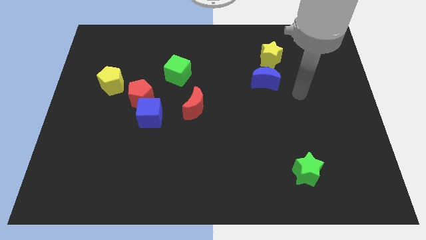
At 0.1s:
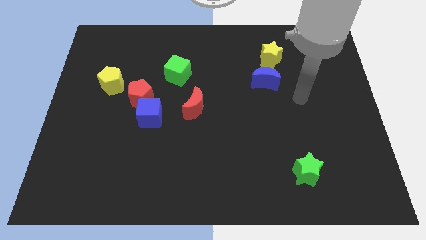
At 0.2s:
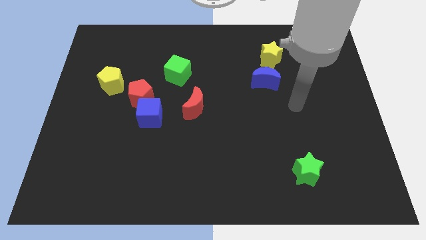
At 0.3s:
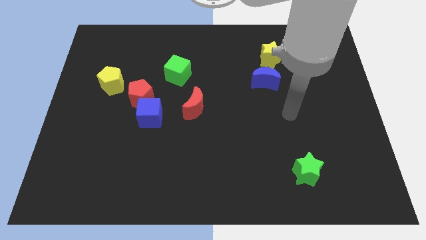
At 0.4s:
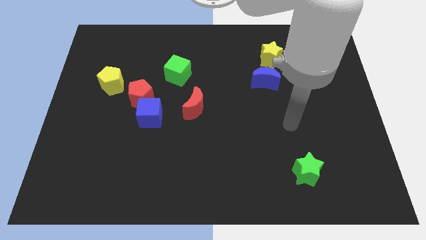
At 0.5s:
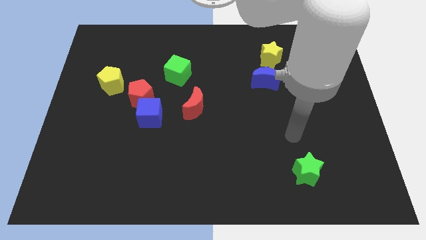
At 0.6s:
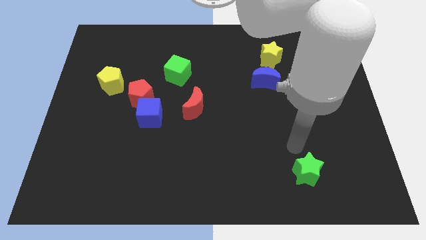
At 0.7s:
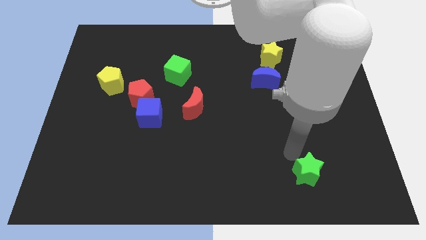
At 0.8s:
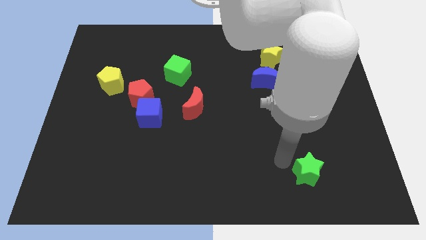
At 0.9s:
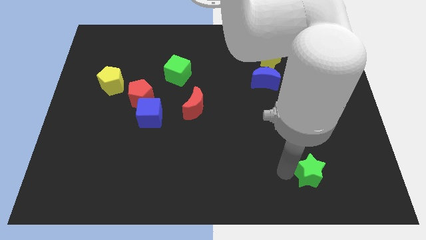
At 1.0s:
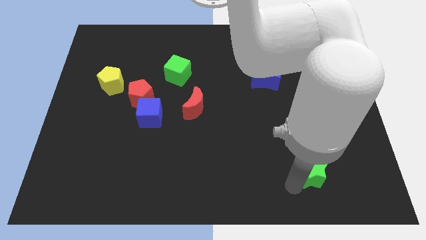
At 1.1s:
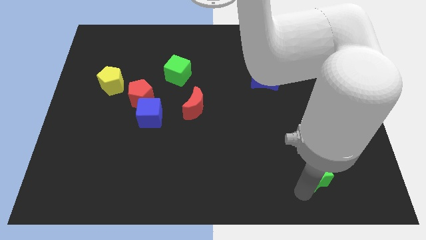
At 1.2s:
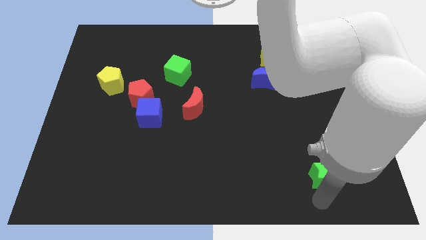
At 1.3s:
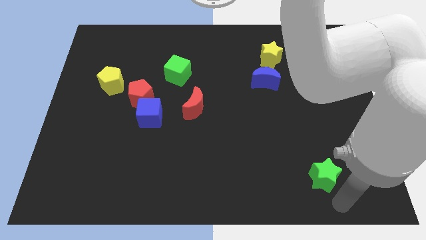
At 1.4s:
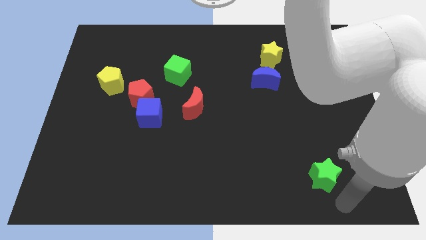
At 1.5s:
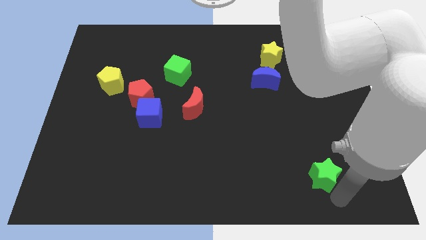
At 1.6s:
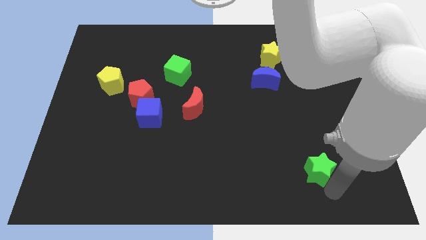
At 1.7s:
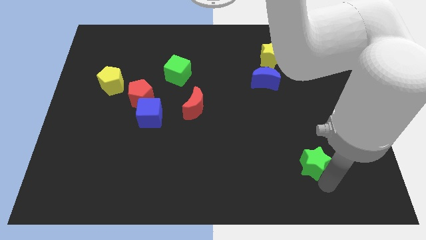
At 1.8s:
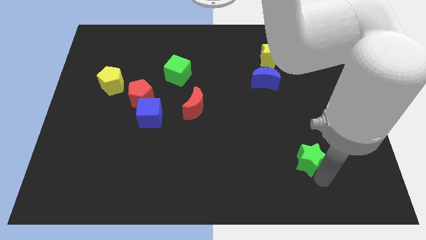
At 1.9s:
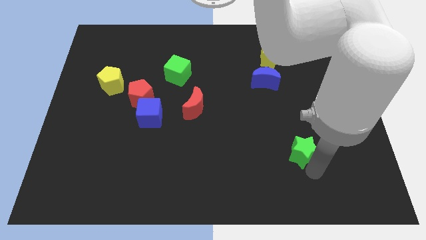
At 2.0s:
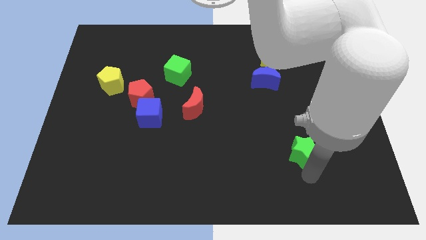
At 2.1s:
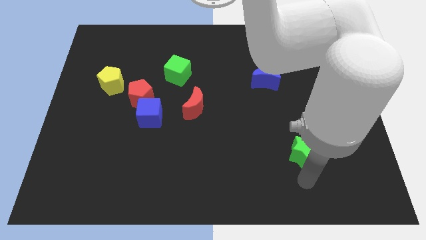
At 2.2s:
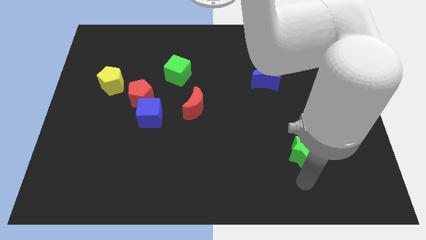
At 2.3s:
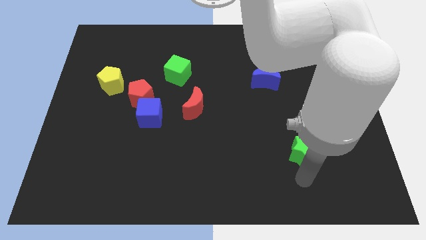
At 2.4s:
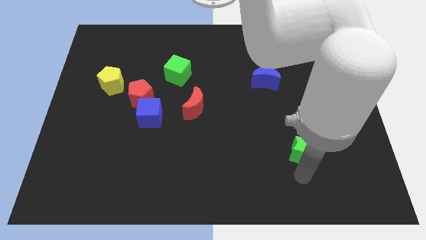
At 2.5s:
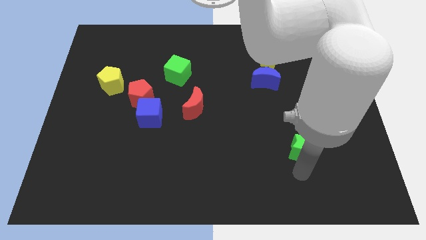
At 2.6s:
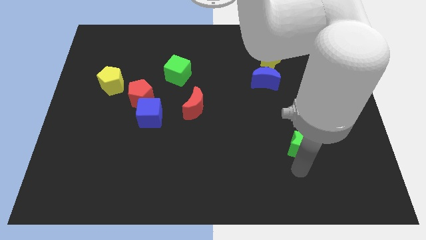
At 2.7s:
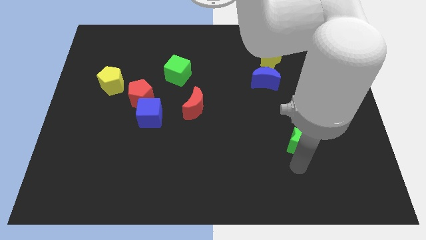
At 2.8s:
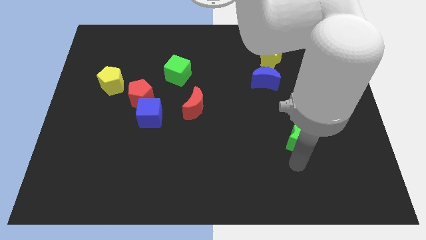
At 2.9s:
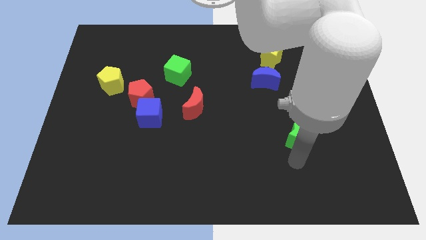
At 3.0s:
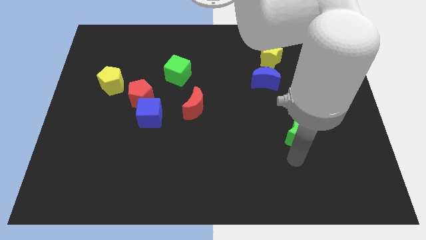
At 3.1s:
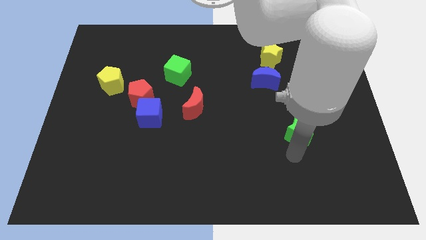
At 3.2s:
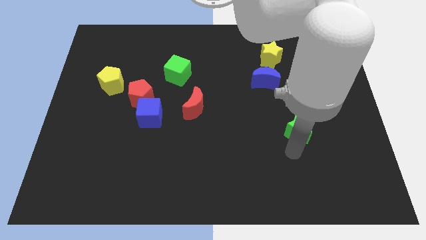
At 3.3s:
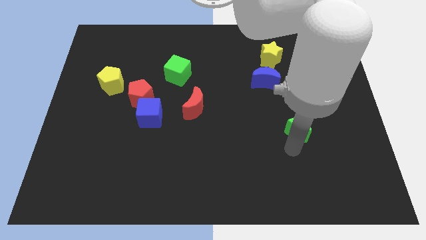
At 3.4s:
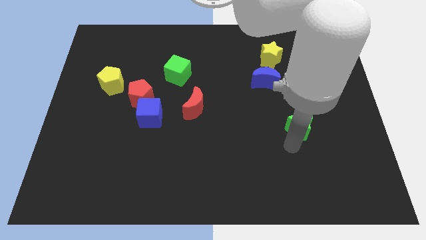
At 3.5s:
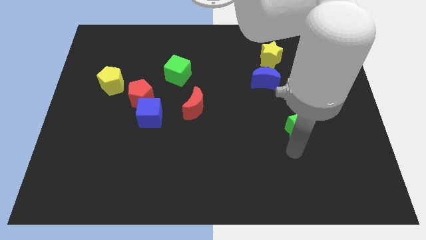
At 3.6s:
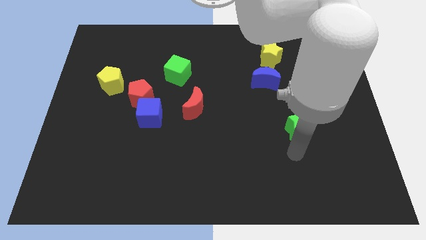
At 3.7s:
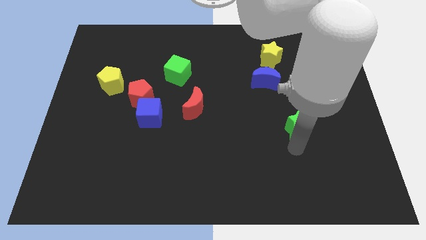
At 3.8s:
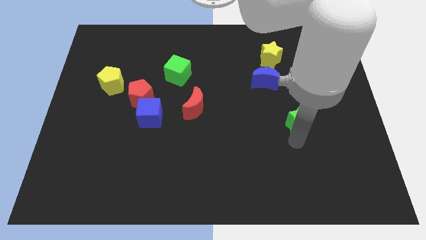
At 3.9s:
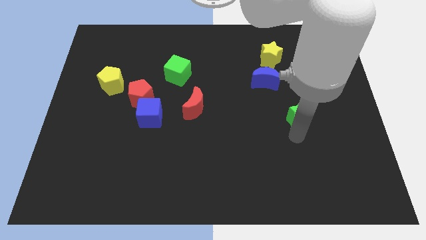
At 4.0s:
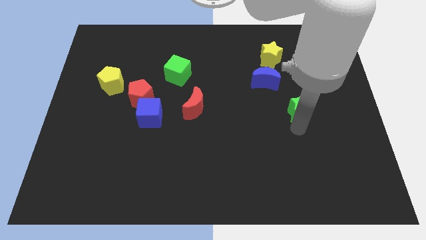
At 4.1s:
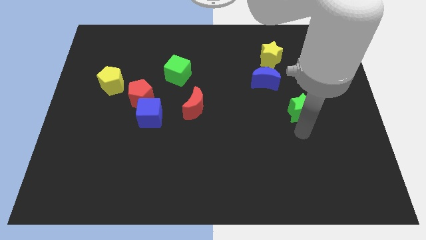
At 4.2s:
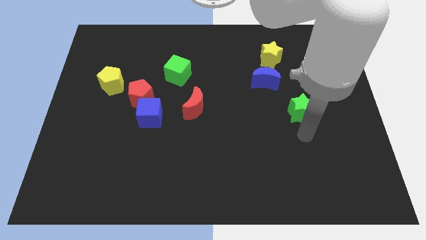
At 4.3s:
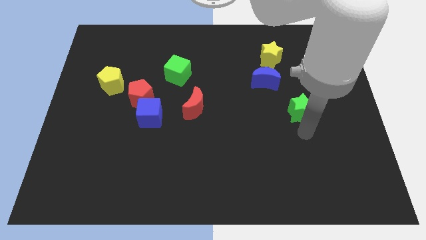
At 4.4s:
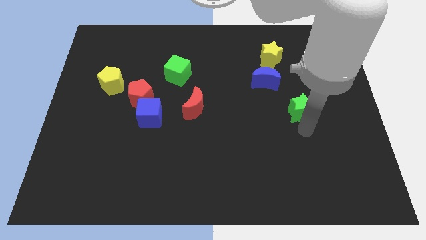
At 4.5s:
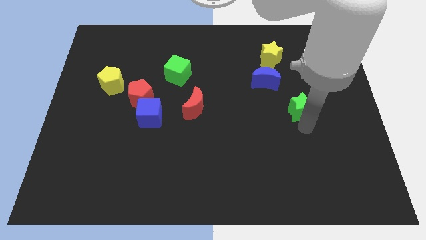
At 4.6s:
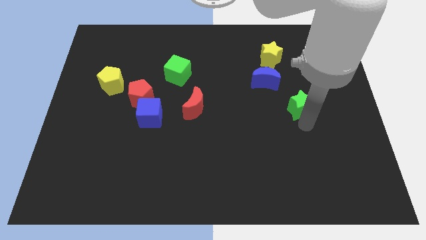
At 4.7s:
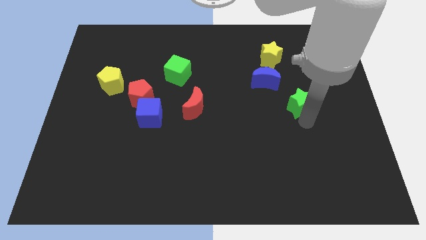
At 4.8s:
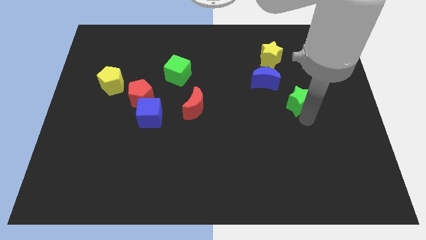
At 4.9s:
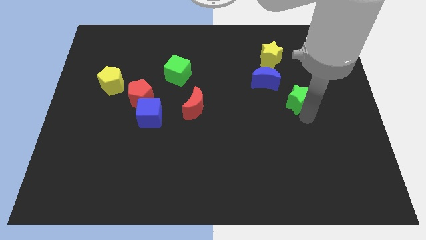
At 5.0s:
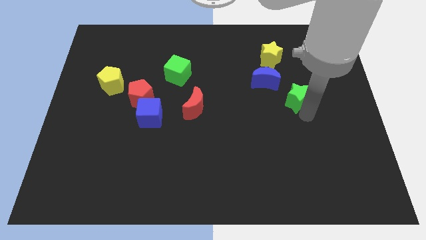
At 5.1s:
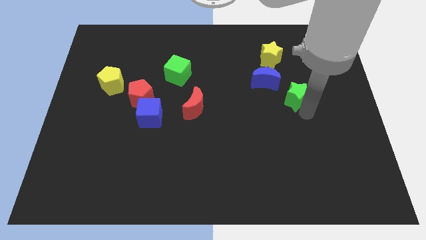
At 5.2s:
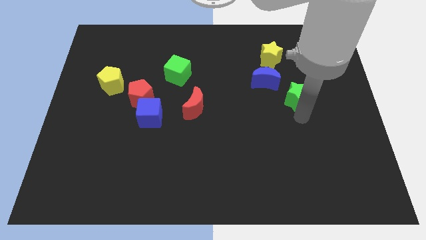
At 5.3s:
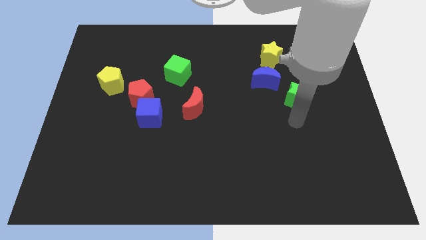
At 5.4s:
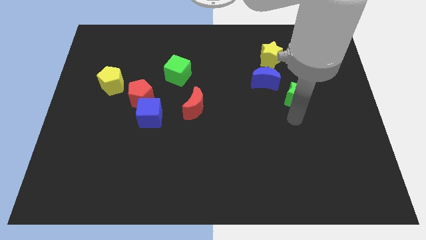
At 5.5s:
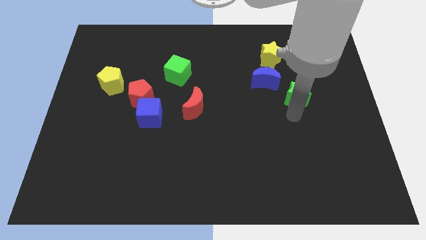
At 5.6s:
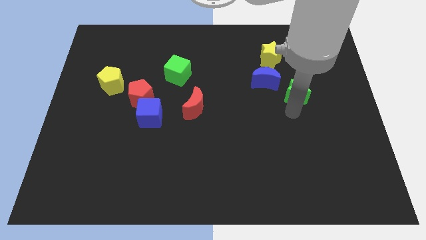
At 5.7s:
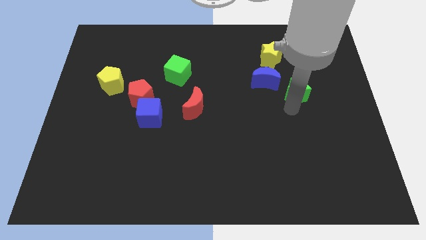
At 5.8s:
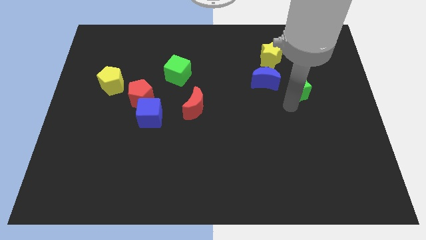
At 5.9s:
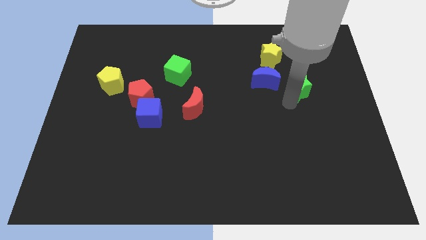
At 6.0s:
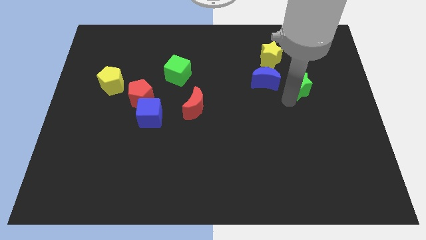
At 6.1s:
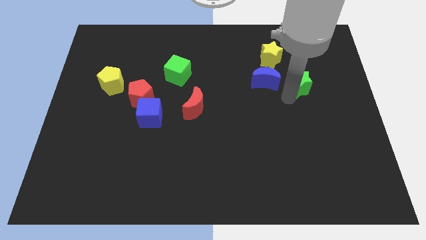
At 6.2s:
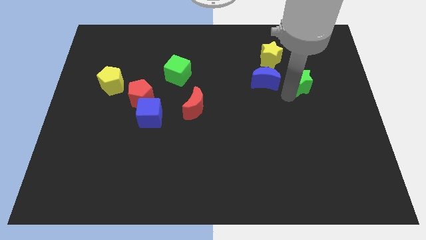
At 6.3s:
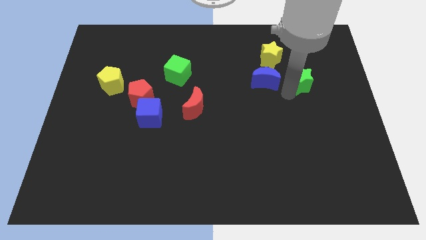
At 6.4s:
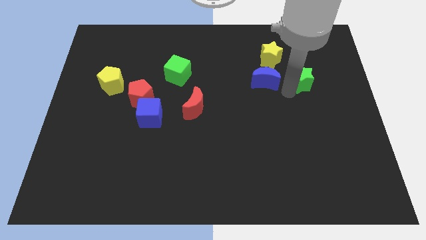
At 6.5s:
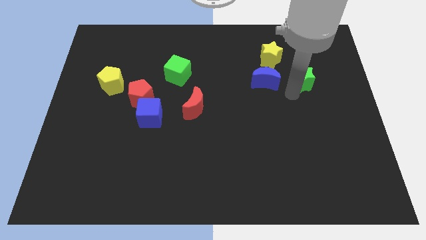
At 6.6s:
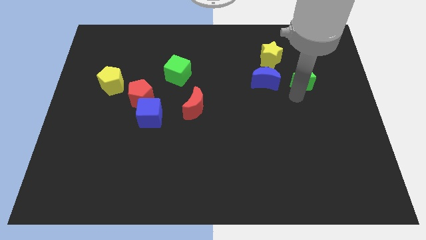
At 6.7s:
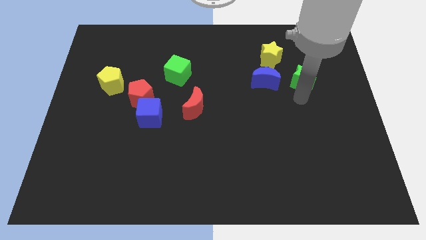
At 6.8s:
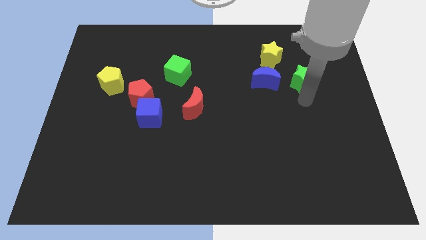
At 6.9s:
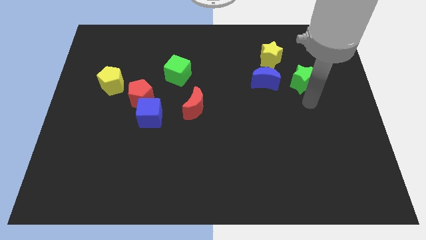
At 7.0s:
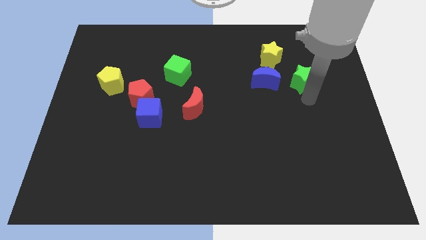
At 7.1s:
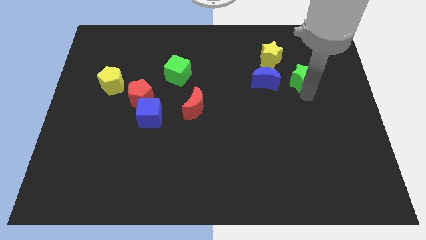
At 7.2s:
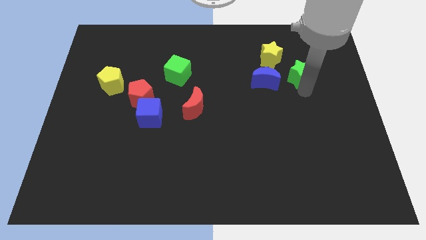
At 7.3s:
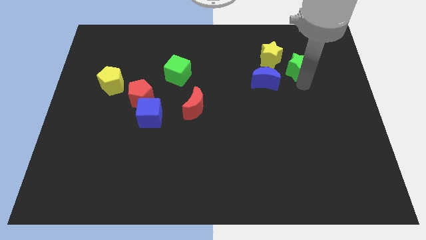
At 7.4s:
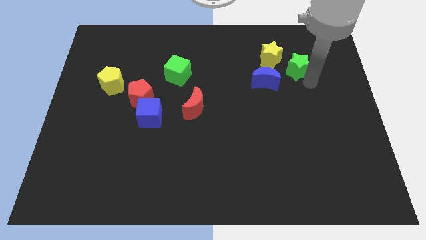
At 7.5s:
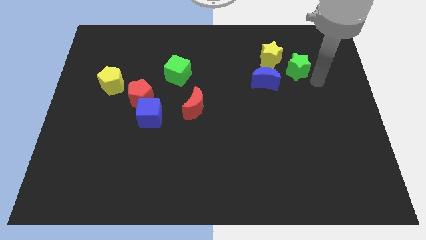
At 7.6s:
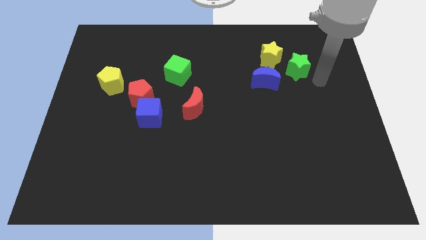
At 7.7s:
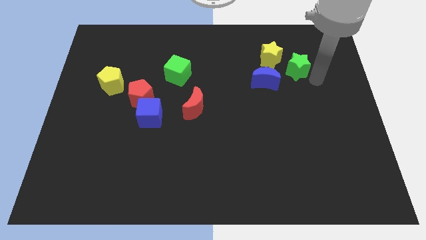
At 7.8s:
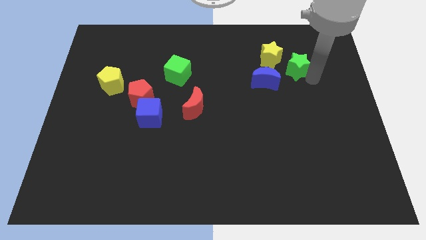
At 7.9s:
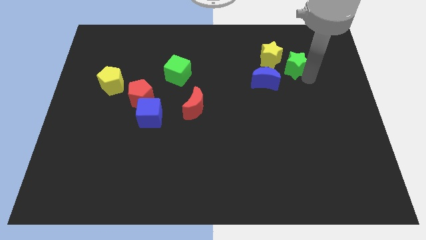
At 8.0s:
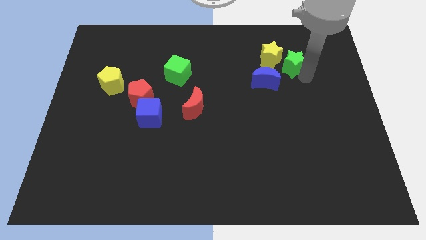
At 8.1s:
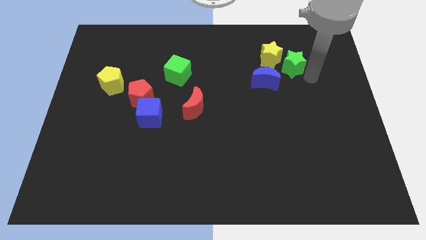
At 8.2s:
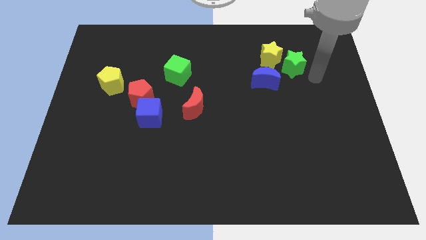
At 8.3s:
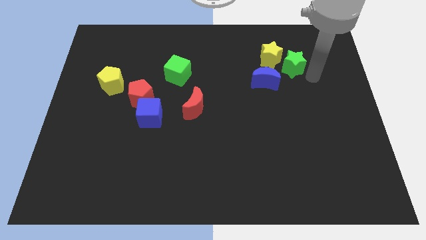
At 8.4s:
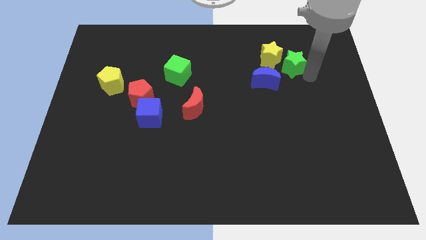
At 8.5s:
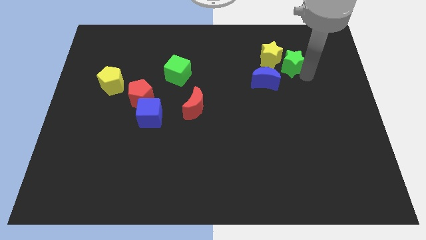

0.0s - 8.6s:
push the green star to the yellow star
